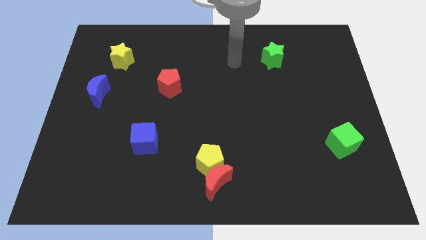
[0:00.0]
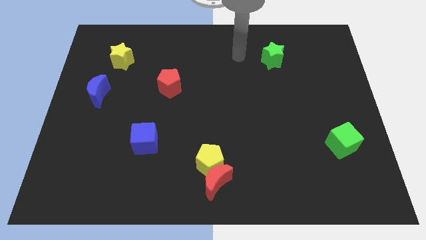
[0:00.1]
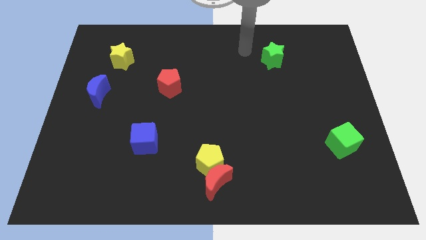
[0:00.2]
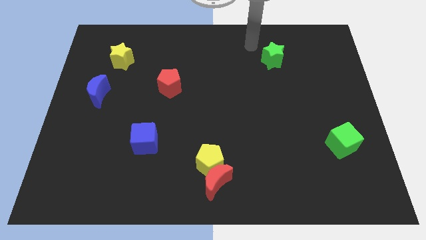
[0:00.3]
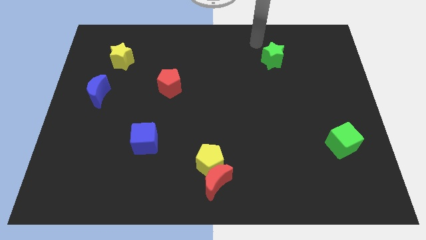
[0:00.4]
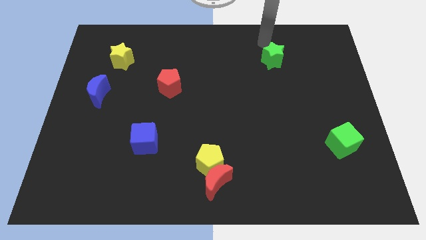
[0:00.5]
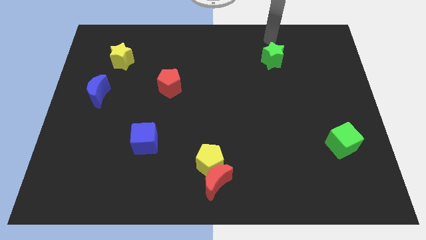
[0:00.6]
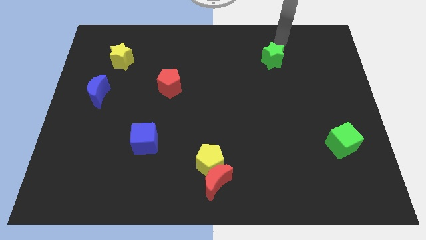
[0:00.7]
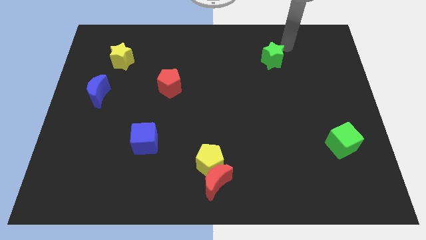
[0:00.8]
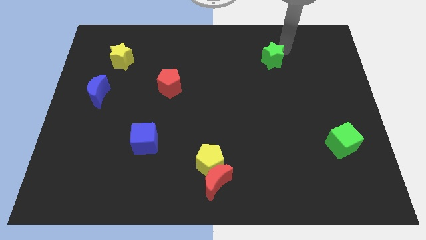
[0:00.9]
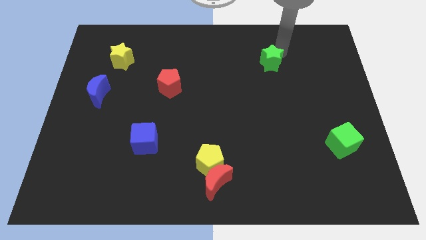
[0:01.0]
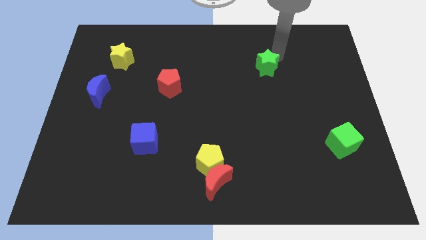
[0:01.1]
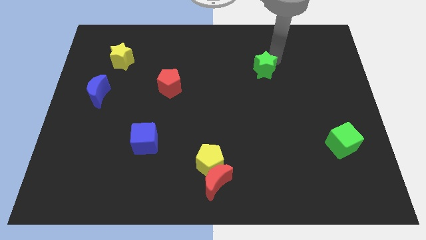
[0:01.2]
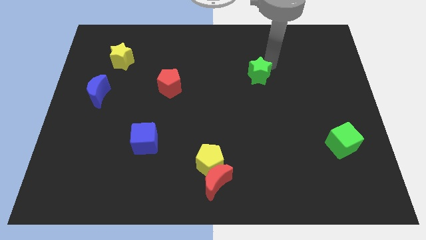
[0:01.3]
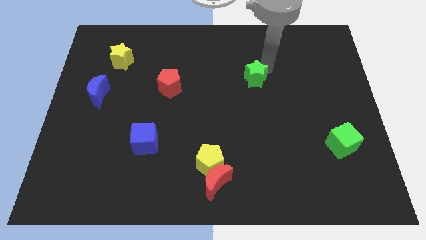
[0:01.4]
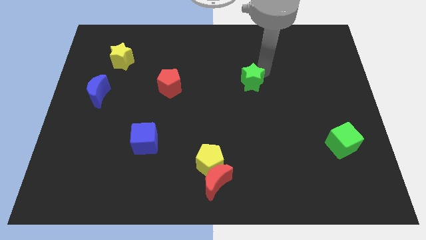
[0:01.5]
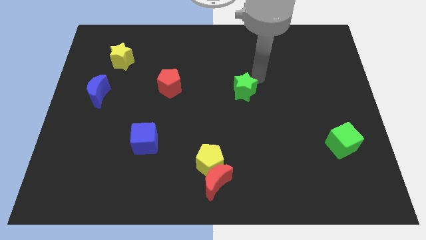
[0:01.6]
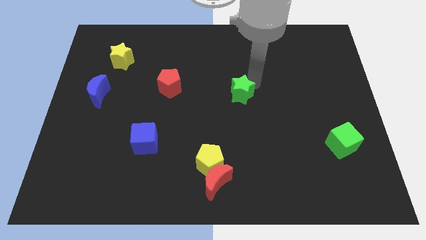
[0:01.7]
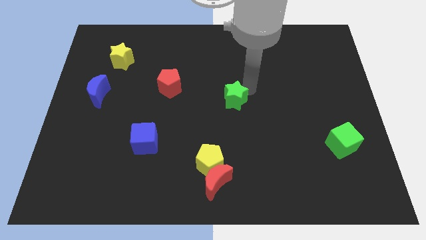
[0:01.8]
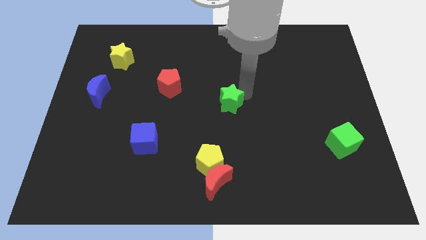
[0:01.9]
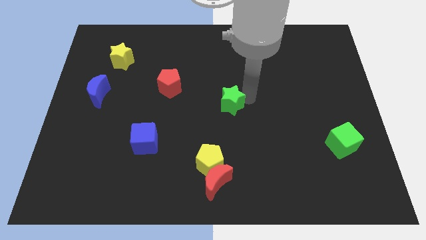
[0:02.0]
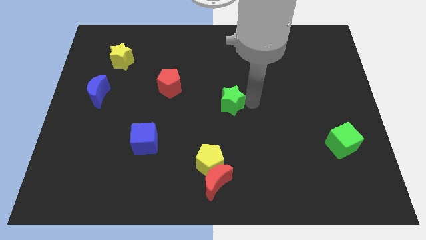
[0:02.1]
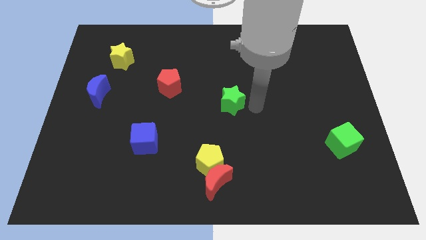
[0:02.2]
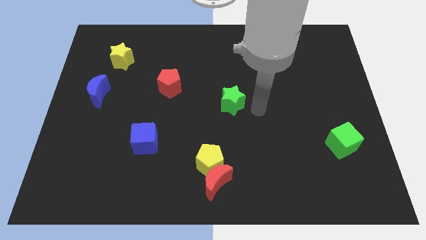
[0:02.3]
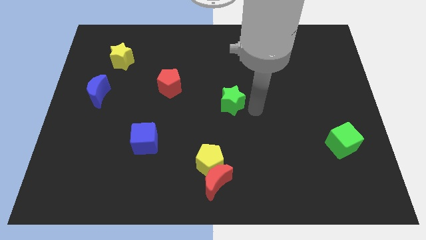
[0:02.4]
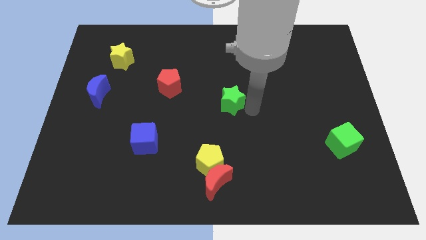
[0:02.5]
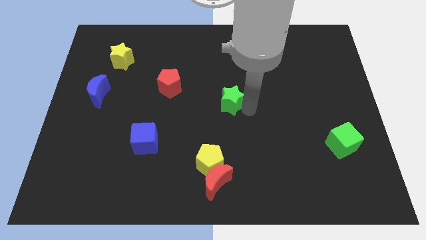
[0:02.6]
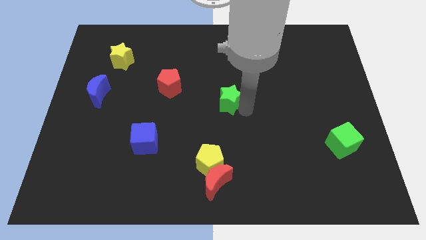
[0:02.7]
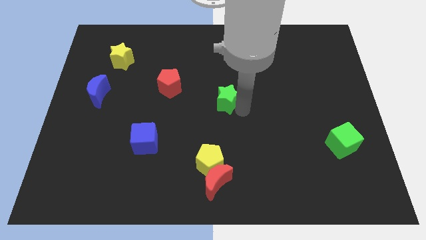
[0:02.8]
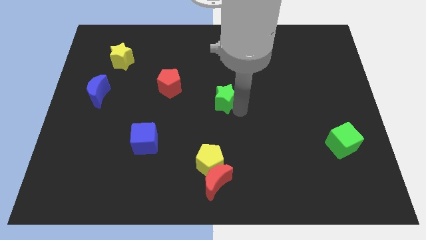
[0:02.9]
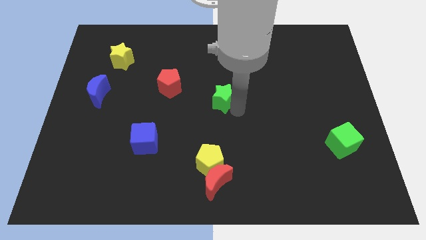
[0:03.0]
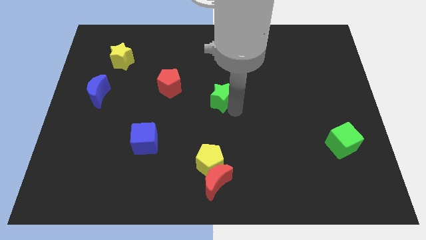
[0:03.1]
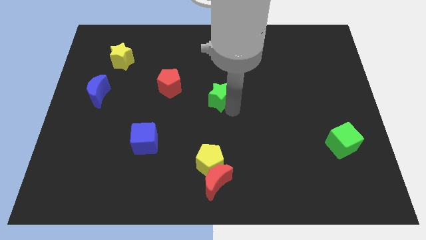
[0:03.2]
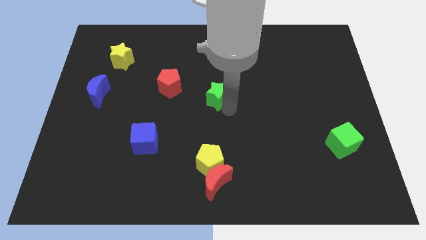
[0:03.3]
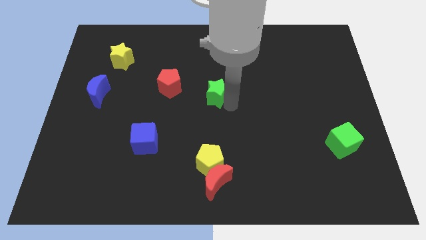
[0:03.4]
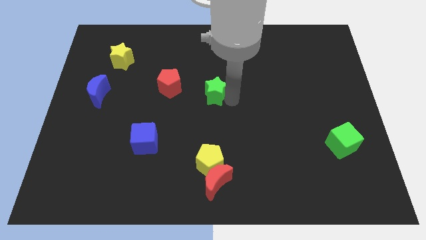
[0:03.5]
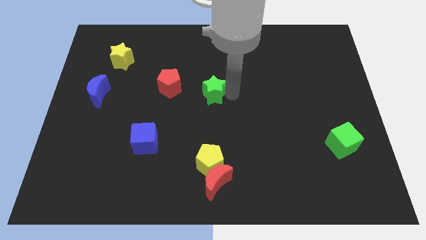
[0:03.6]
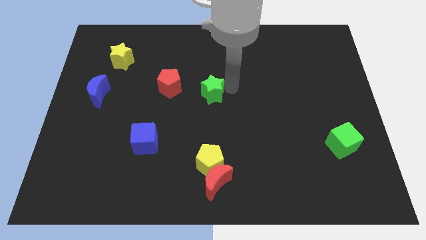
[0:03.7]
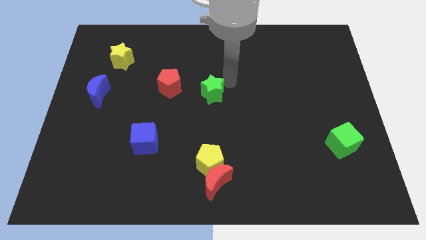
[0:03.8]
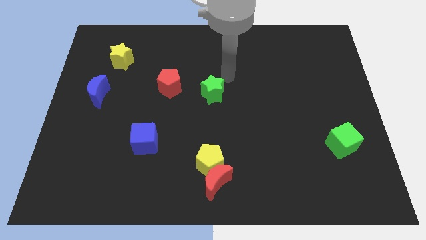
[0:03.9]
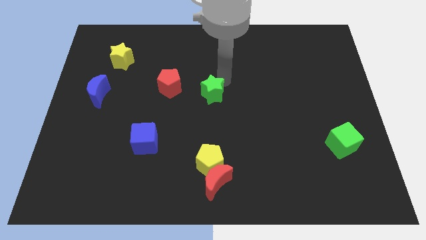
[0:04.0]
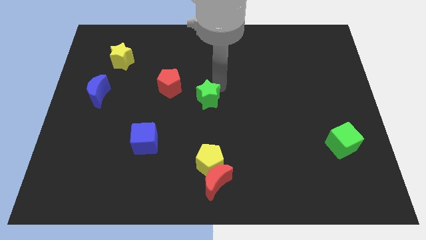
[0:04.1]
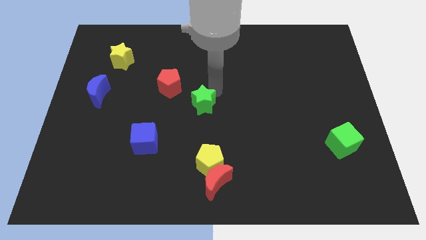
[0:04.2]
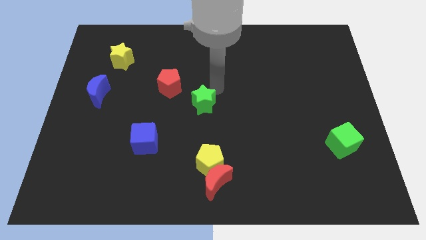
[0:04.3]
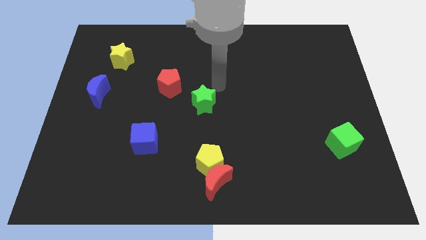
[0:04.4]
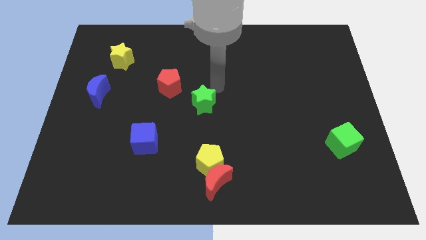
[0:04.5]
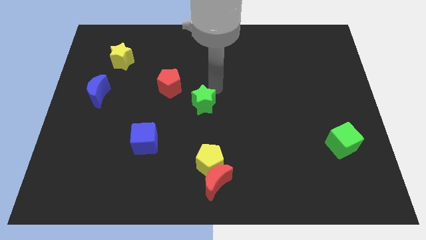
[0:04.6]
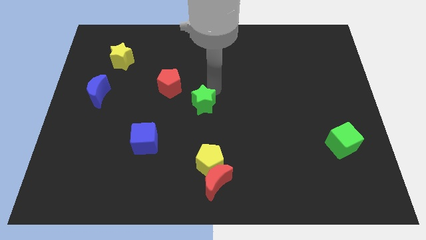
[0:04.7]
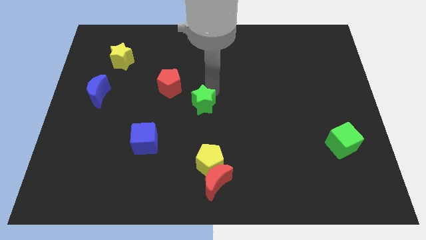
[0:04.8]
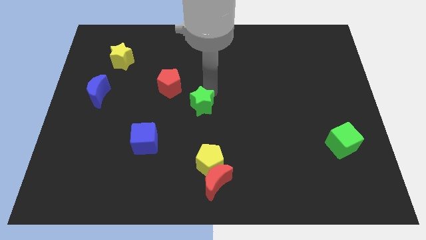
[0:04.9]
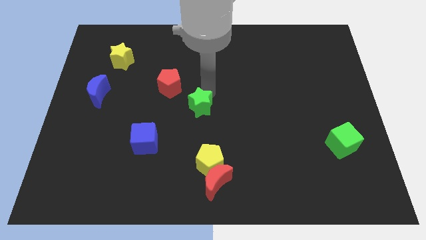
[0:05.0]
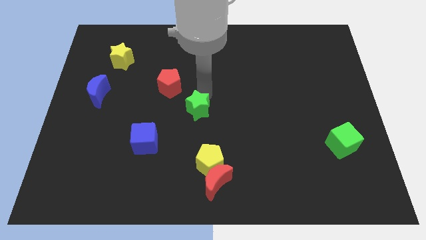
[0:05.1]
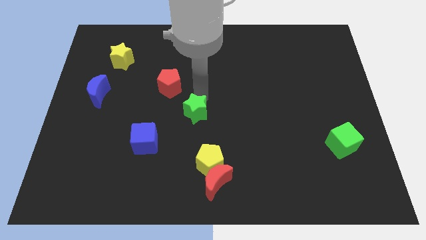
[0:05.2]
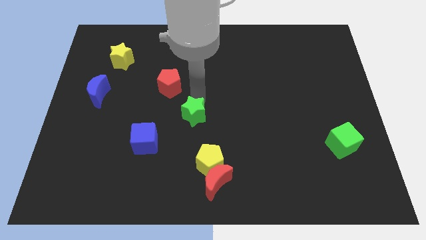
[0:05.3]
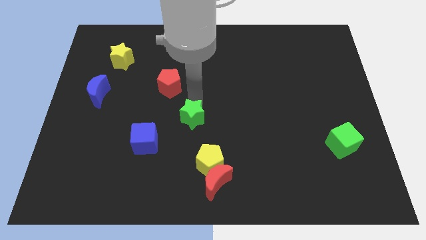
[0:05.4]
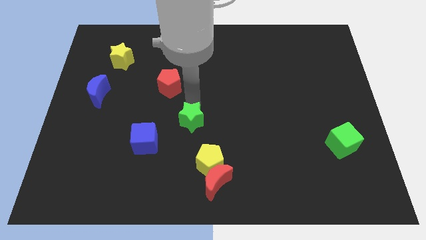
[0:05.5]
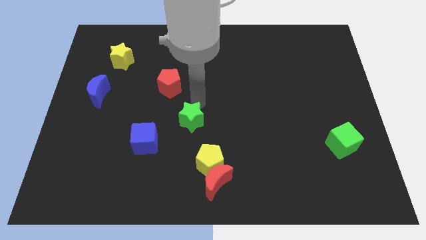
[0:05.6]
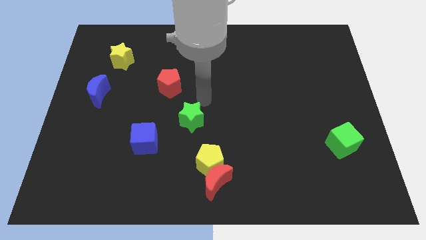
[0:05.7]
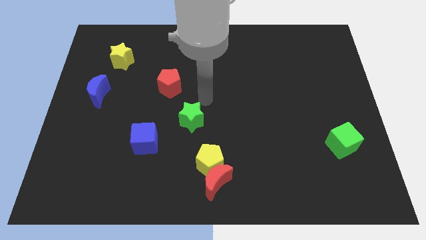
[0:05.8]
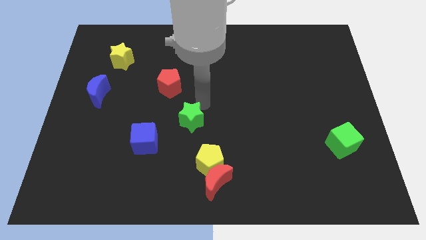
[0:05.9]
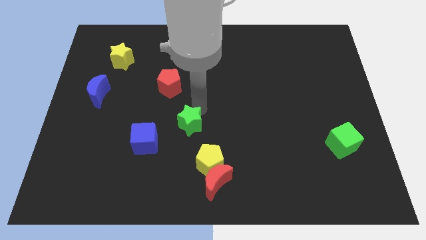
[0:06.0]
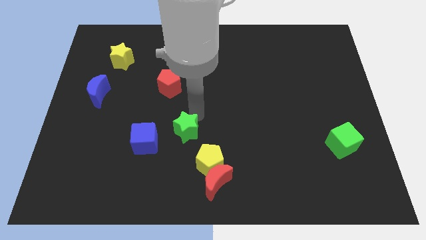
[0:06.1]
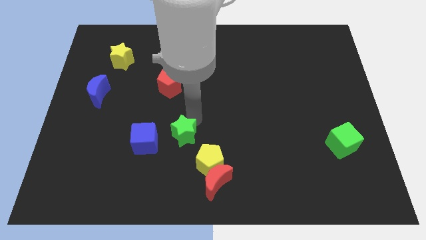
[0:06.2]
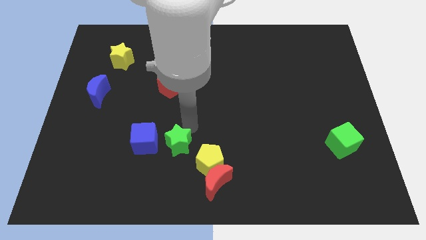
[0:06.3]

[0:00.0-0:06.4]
push the green star diagonally down and to the right of the blue cube

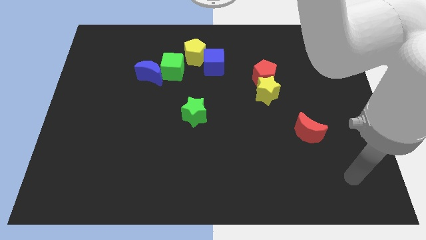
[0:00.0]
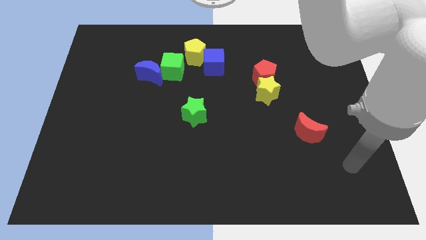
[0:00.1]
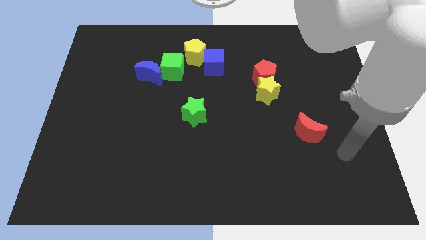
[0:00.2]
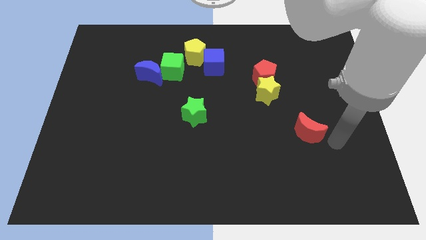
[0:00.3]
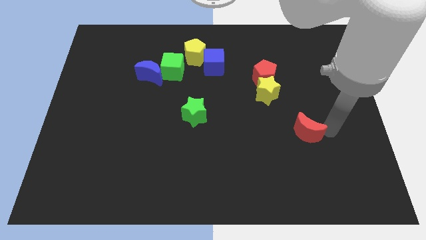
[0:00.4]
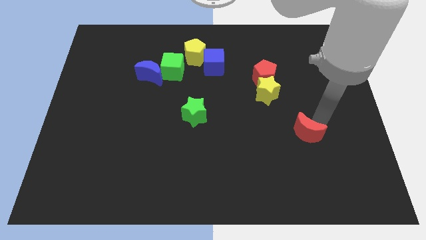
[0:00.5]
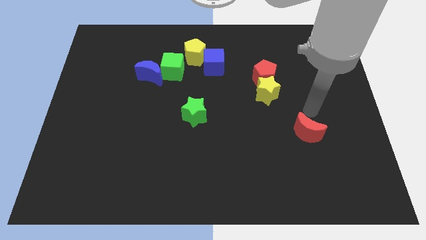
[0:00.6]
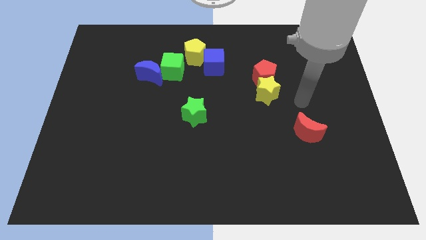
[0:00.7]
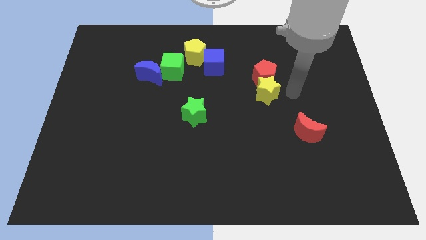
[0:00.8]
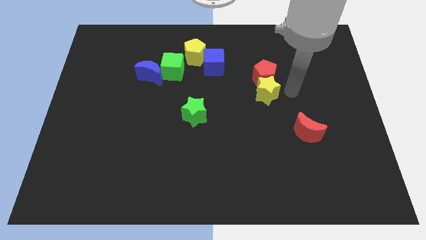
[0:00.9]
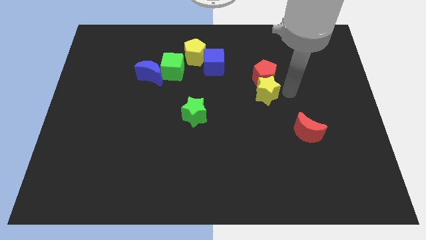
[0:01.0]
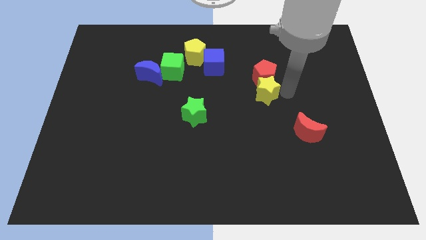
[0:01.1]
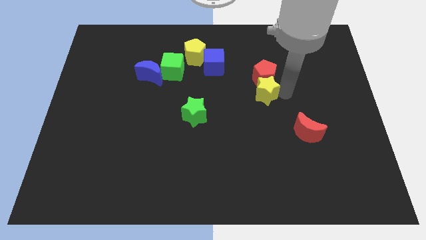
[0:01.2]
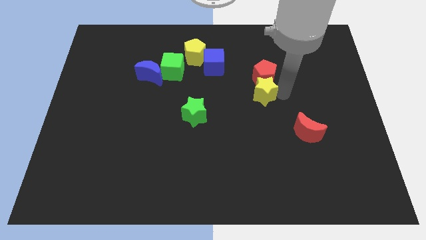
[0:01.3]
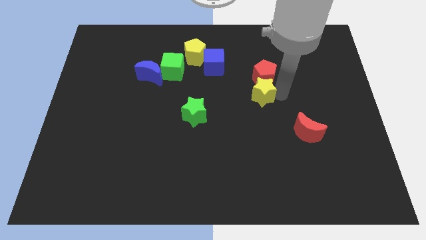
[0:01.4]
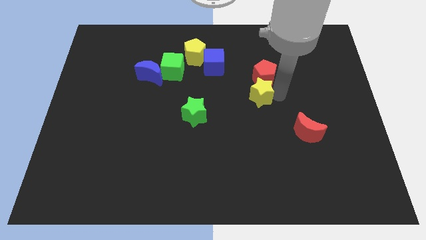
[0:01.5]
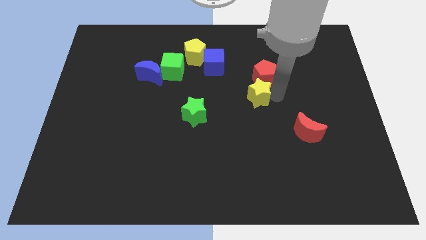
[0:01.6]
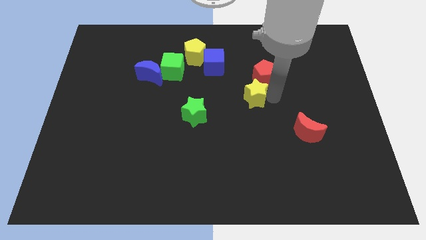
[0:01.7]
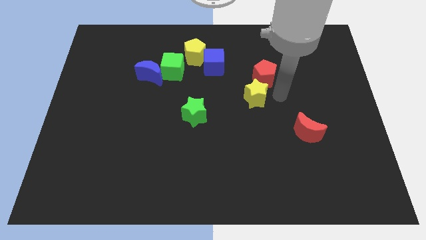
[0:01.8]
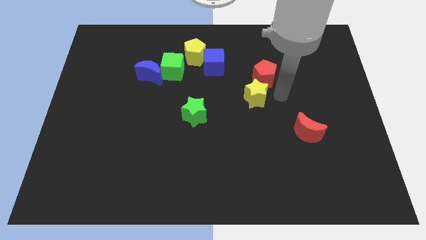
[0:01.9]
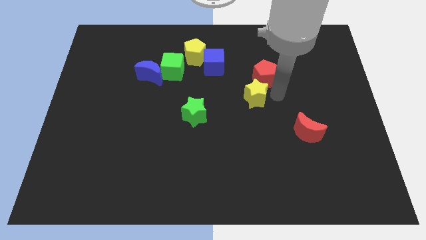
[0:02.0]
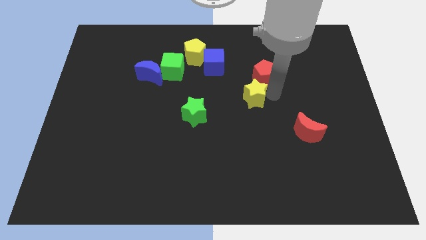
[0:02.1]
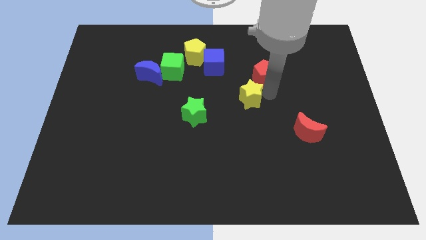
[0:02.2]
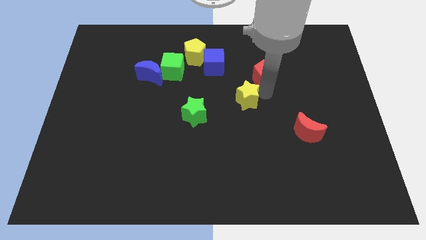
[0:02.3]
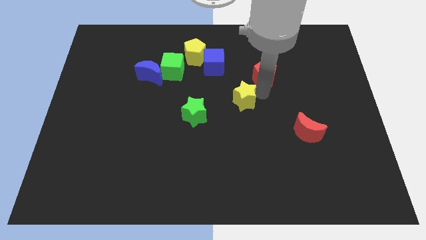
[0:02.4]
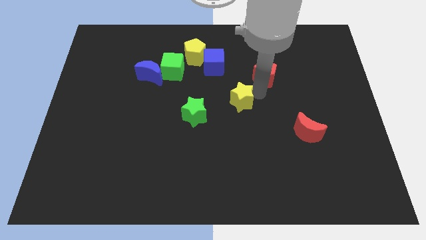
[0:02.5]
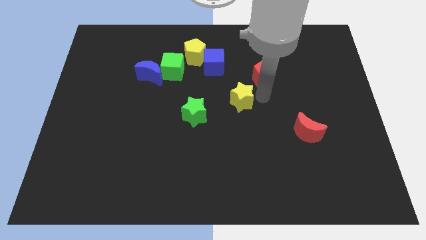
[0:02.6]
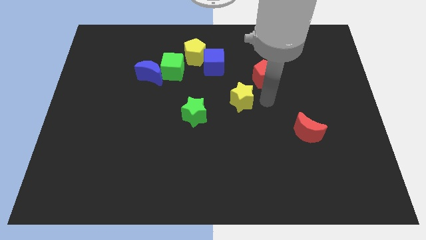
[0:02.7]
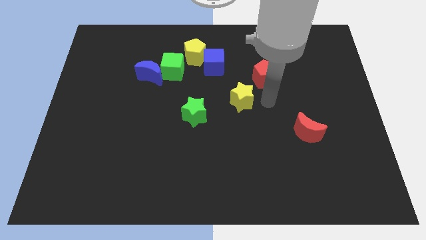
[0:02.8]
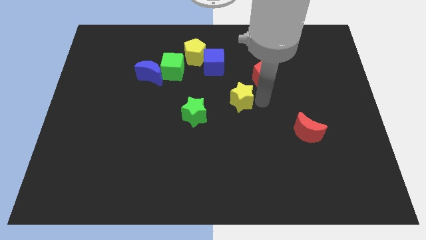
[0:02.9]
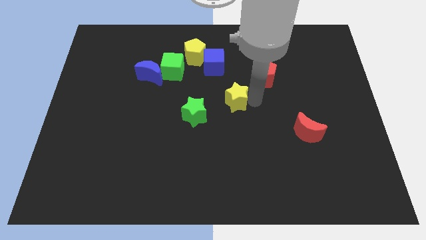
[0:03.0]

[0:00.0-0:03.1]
put the yellow star to the top right side of the green star
